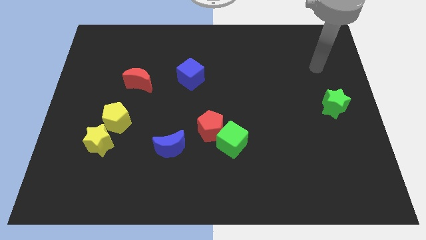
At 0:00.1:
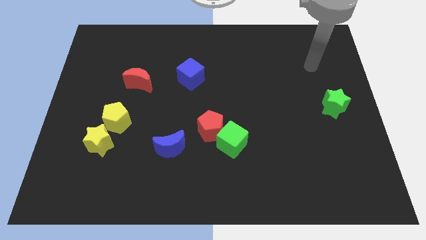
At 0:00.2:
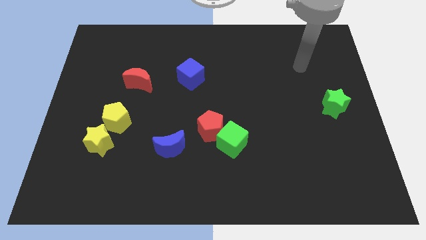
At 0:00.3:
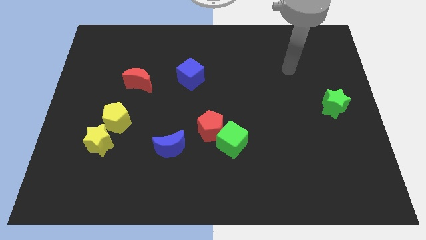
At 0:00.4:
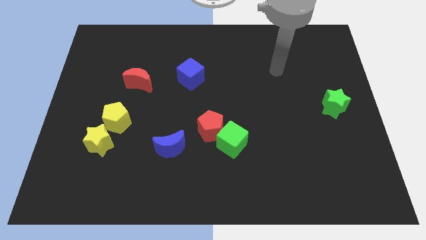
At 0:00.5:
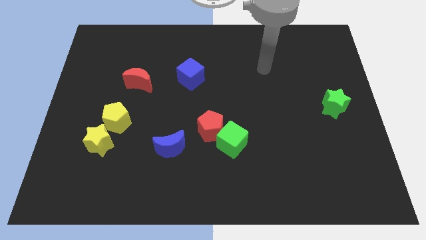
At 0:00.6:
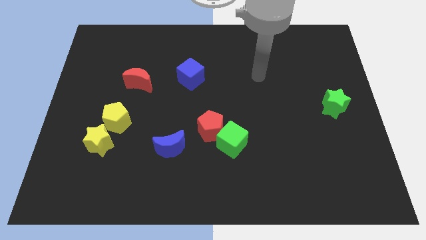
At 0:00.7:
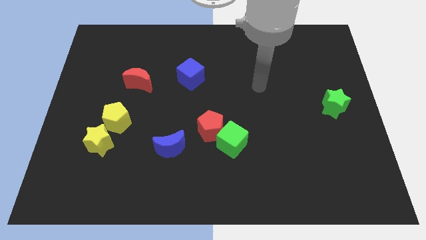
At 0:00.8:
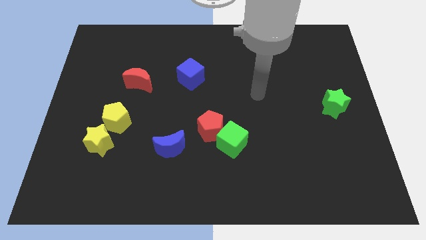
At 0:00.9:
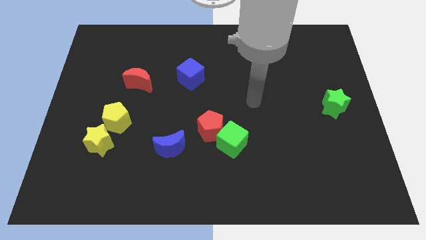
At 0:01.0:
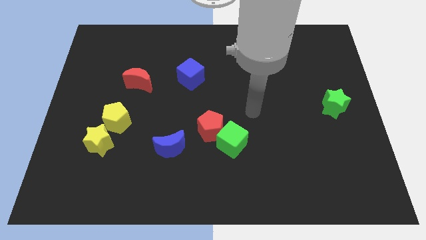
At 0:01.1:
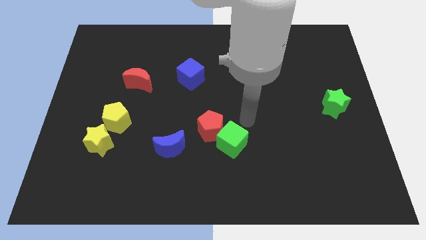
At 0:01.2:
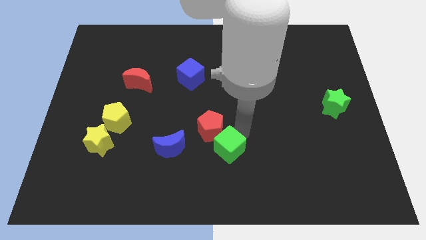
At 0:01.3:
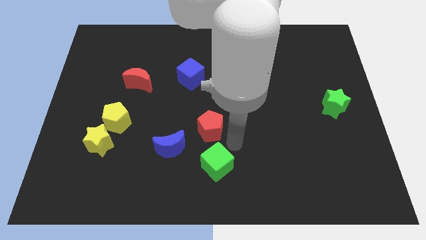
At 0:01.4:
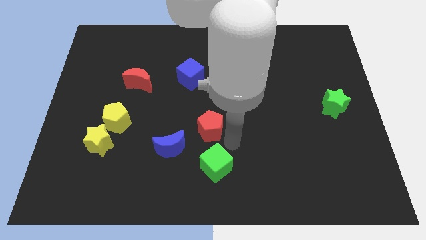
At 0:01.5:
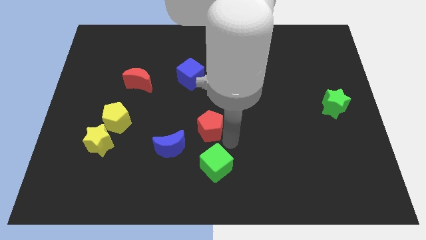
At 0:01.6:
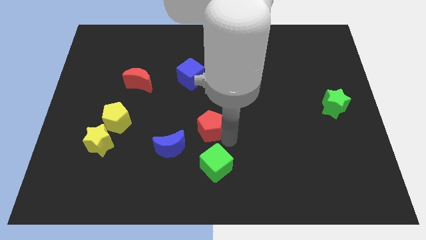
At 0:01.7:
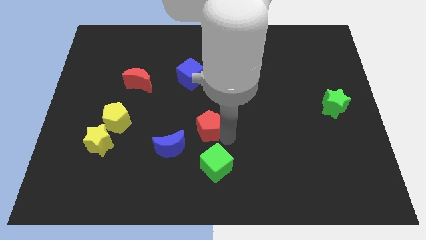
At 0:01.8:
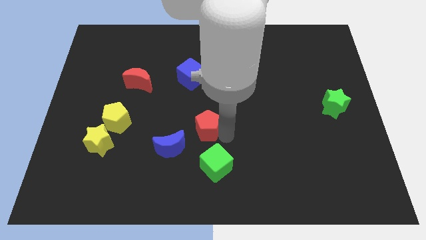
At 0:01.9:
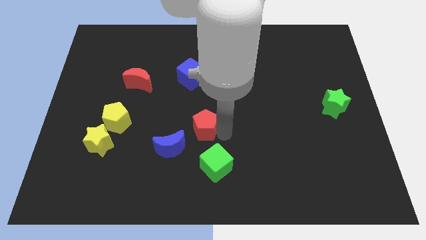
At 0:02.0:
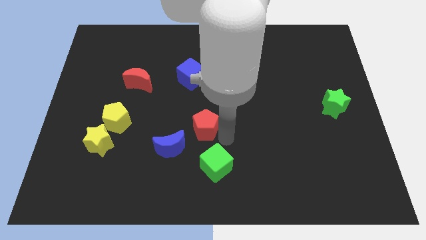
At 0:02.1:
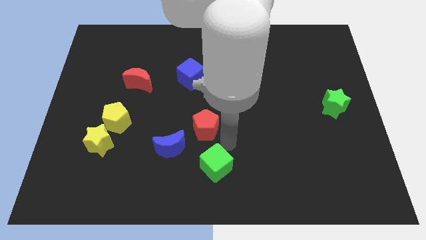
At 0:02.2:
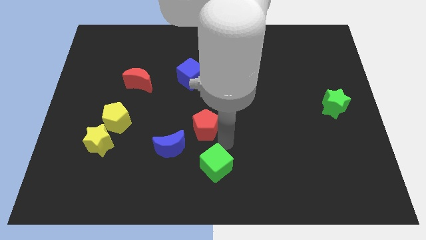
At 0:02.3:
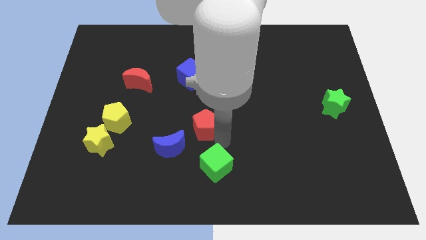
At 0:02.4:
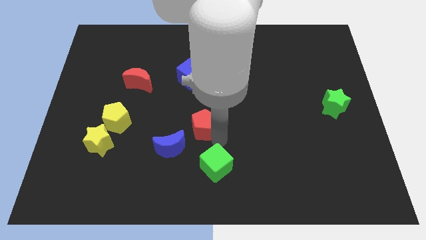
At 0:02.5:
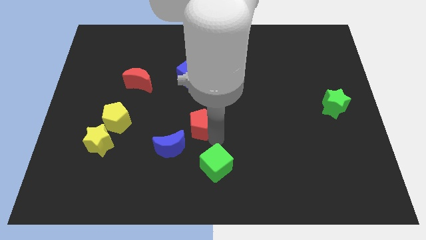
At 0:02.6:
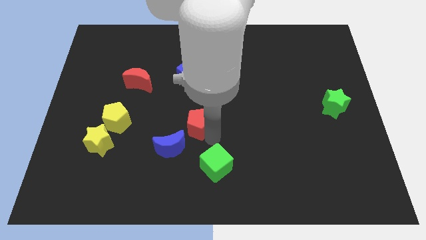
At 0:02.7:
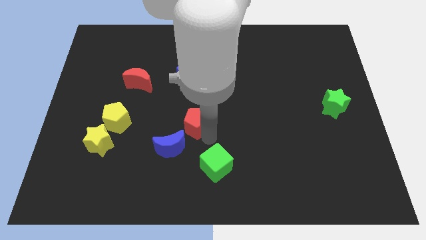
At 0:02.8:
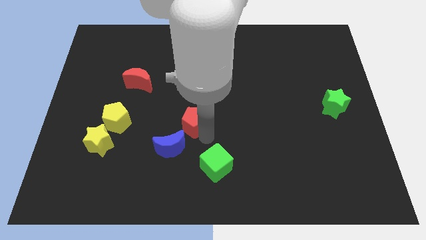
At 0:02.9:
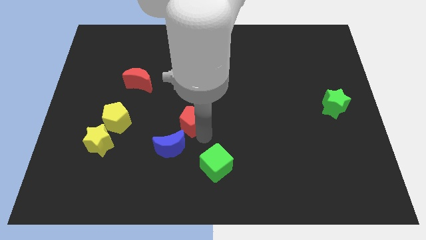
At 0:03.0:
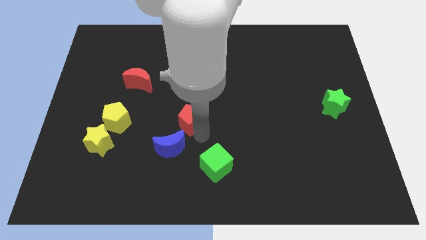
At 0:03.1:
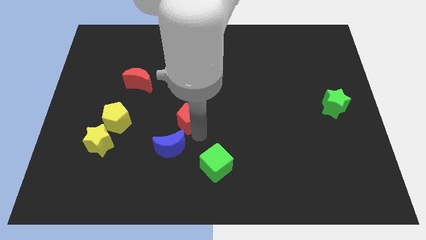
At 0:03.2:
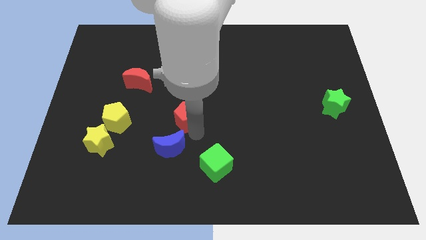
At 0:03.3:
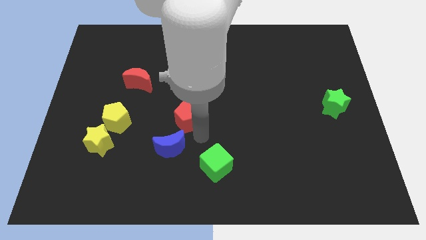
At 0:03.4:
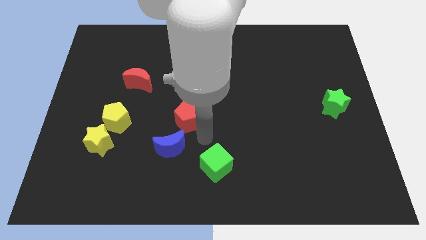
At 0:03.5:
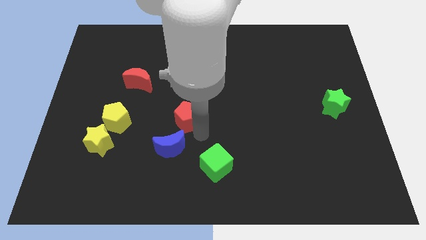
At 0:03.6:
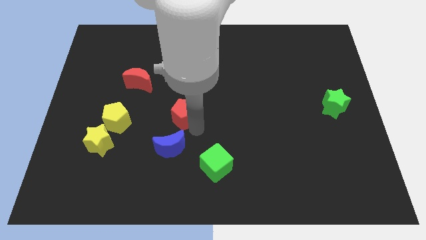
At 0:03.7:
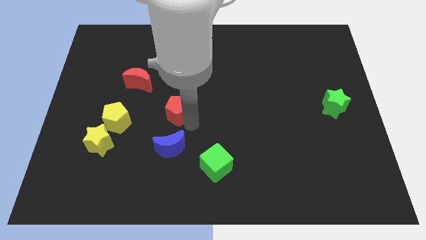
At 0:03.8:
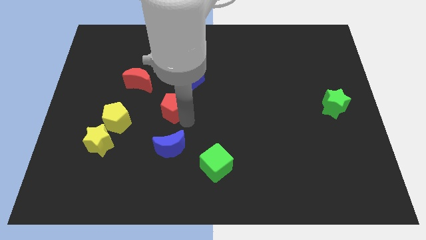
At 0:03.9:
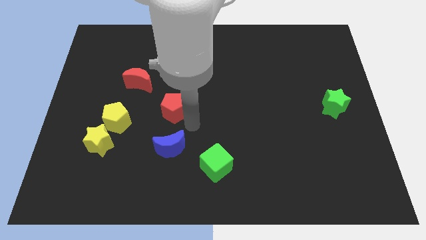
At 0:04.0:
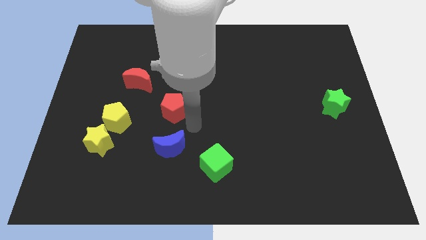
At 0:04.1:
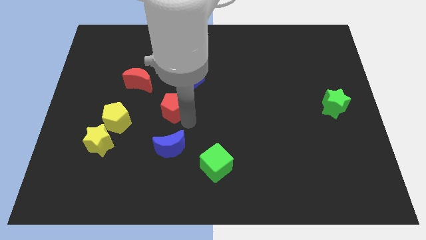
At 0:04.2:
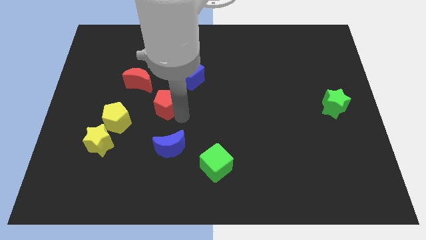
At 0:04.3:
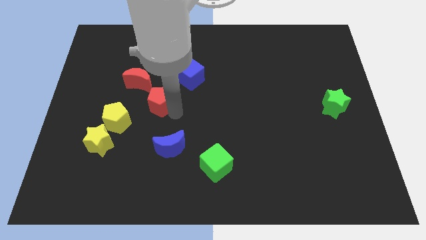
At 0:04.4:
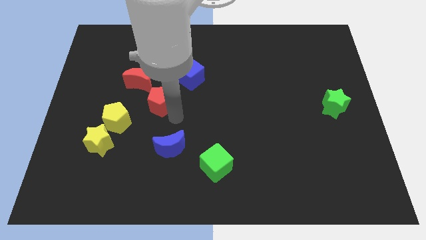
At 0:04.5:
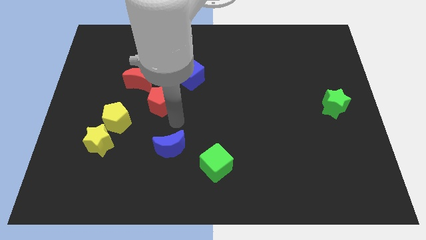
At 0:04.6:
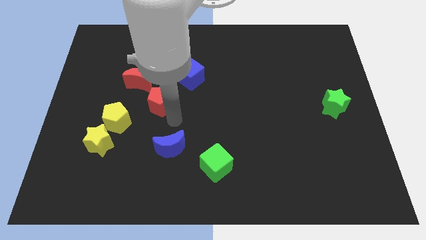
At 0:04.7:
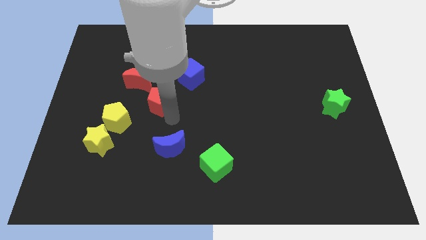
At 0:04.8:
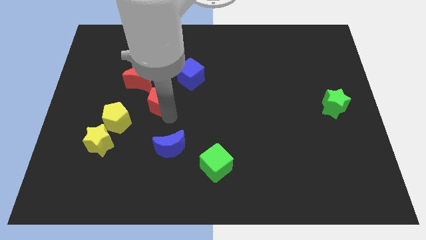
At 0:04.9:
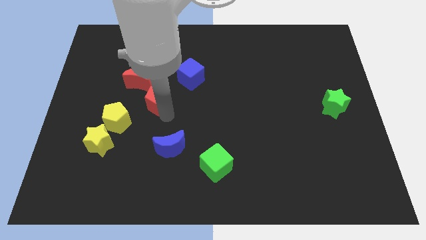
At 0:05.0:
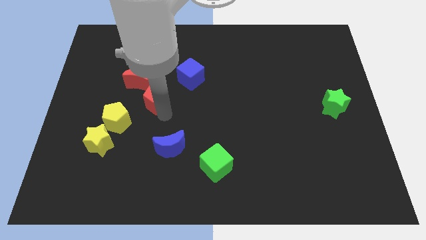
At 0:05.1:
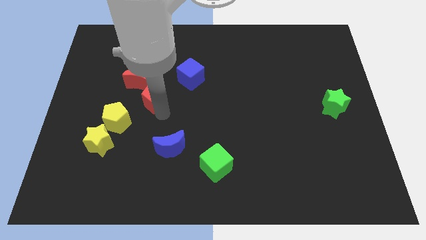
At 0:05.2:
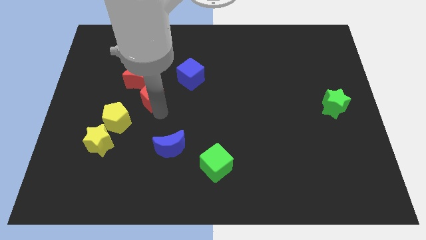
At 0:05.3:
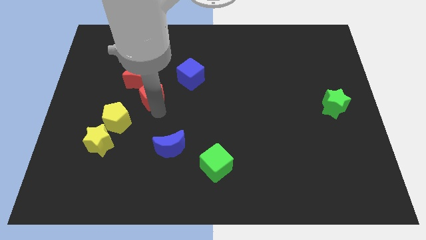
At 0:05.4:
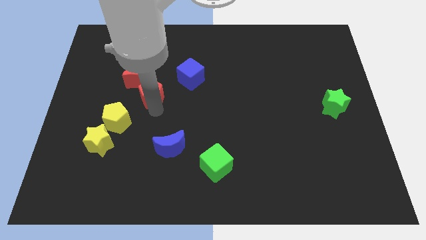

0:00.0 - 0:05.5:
slide the red pentagon next to the red moon

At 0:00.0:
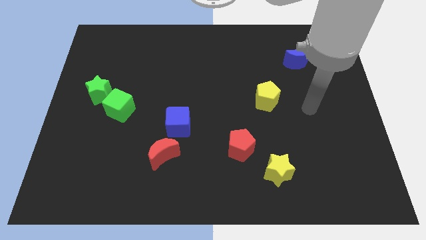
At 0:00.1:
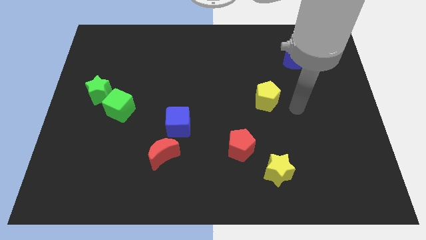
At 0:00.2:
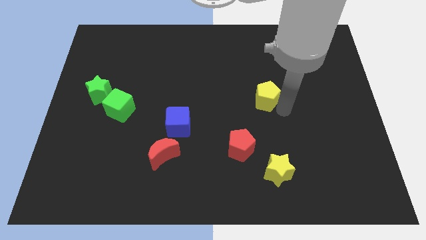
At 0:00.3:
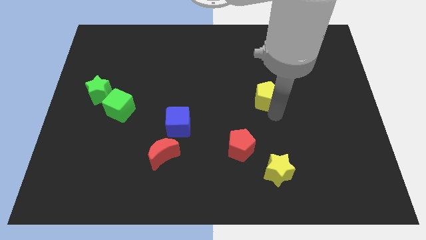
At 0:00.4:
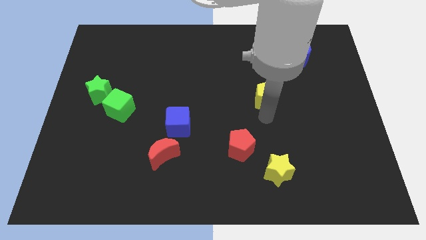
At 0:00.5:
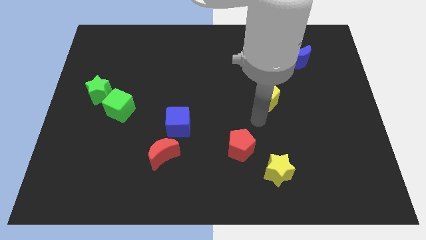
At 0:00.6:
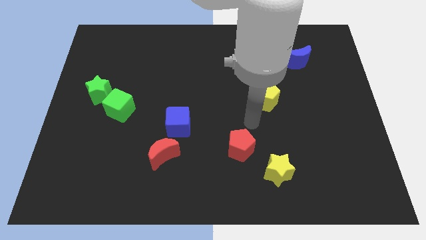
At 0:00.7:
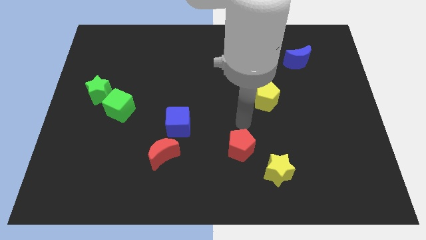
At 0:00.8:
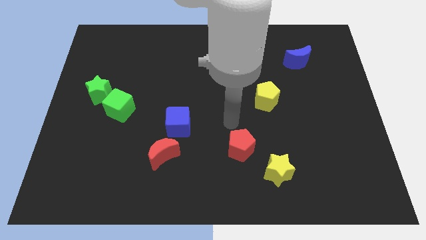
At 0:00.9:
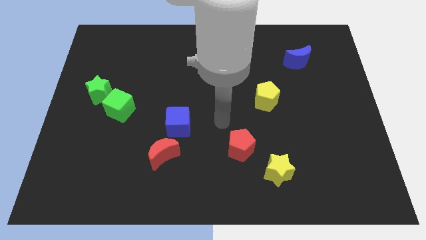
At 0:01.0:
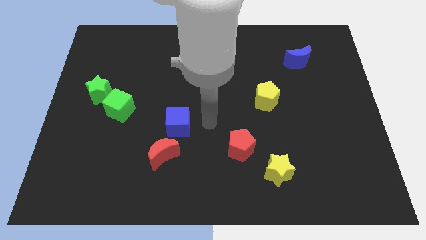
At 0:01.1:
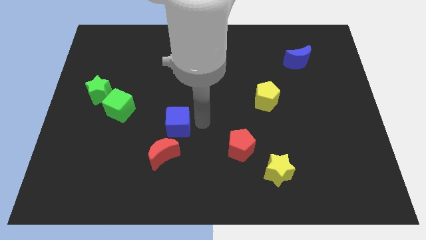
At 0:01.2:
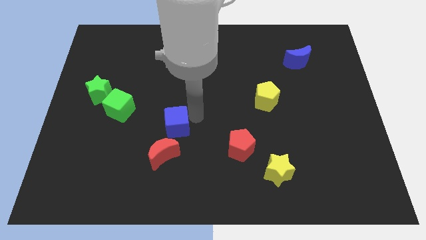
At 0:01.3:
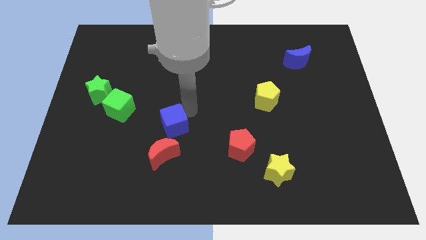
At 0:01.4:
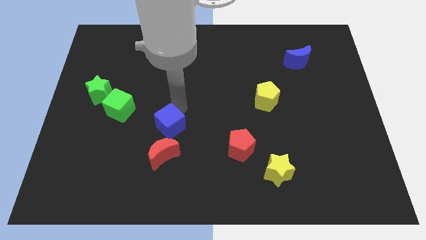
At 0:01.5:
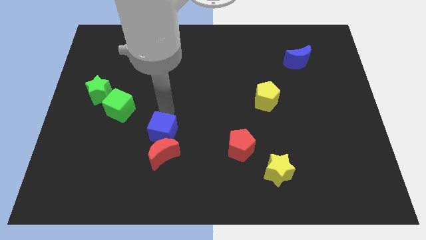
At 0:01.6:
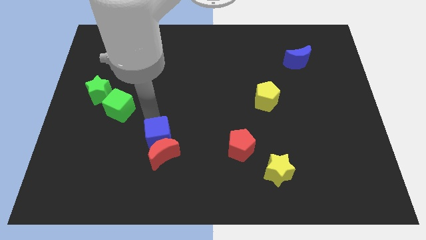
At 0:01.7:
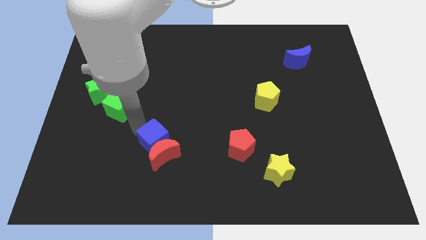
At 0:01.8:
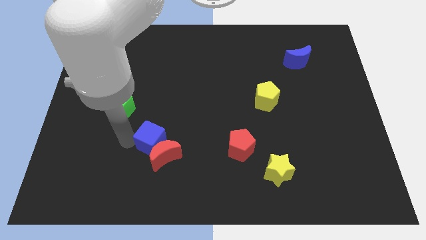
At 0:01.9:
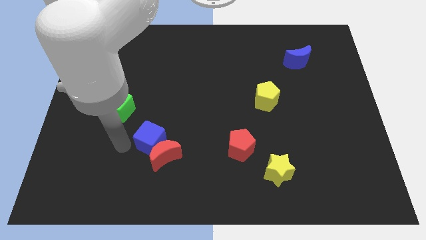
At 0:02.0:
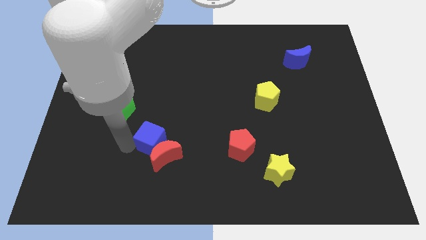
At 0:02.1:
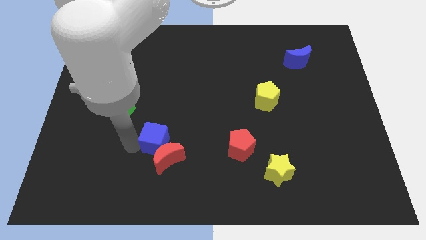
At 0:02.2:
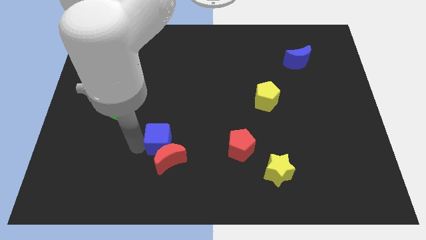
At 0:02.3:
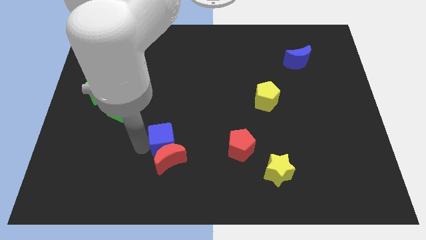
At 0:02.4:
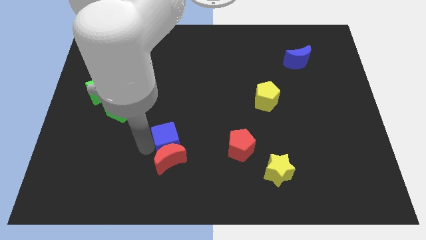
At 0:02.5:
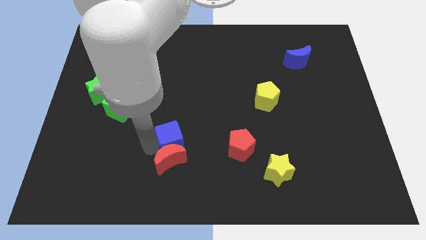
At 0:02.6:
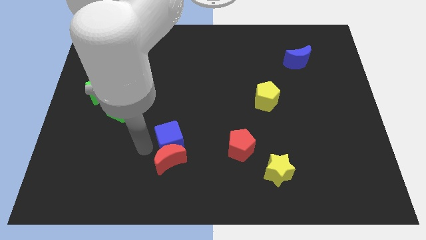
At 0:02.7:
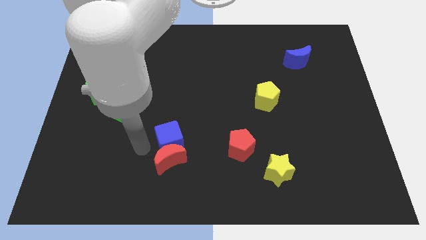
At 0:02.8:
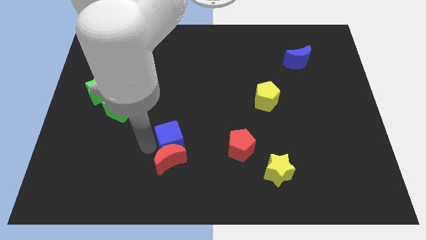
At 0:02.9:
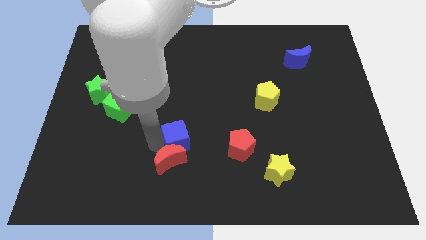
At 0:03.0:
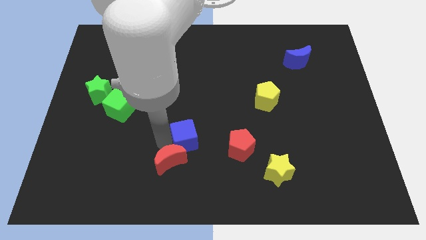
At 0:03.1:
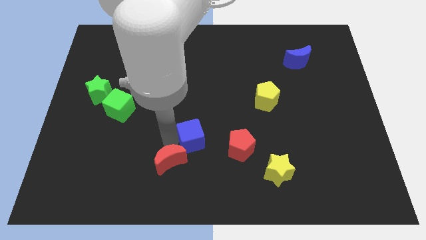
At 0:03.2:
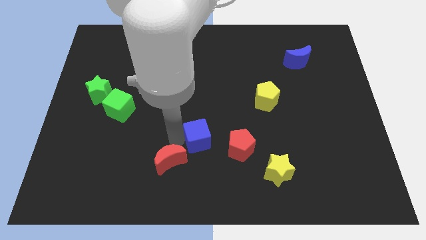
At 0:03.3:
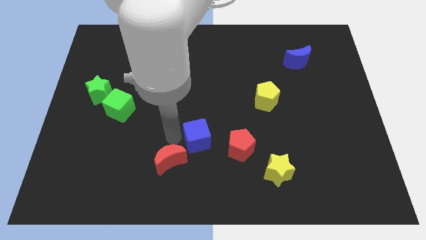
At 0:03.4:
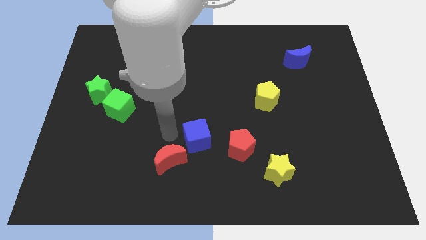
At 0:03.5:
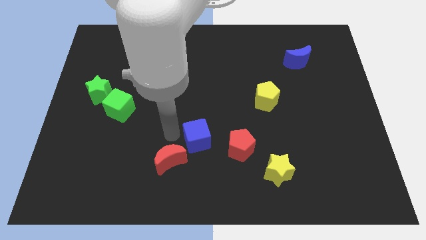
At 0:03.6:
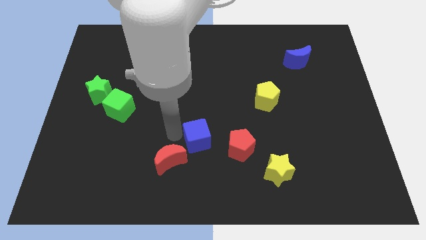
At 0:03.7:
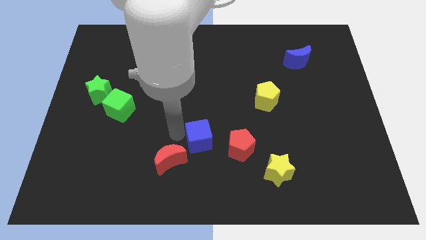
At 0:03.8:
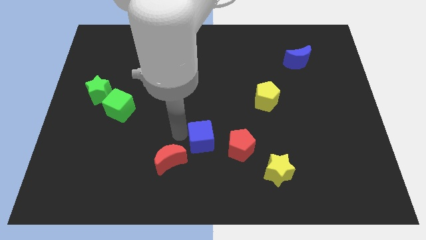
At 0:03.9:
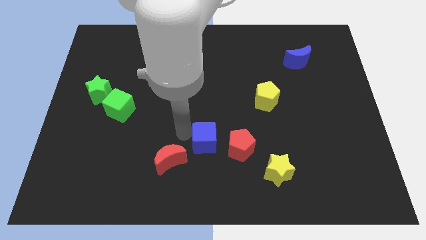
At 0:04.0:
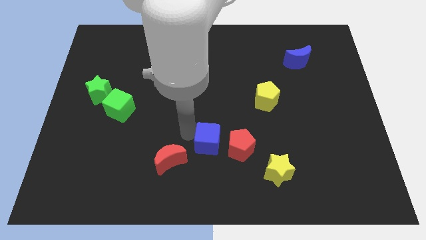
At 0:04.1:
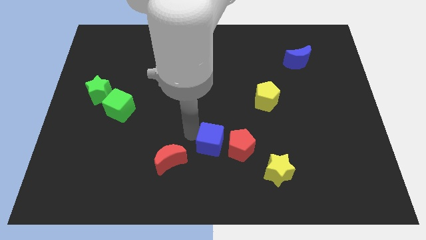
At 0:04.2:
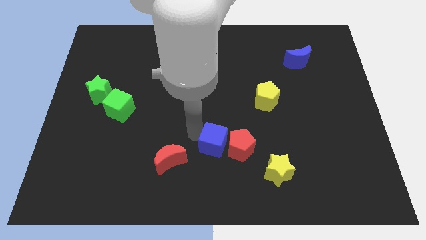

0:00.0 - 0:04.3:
push the blue cube to the red pentagon
